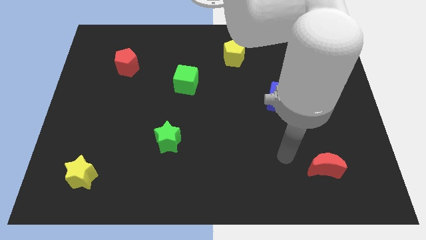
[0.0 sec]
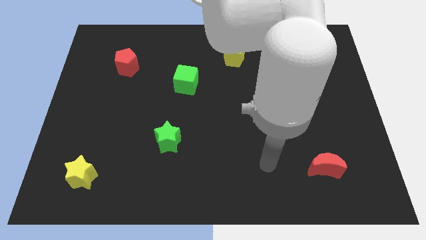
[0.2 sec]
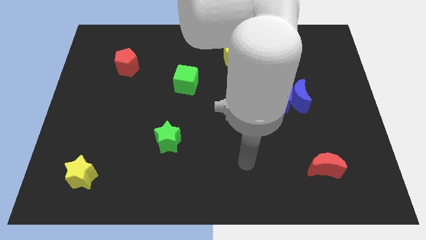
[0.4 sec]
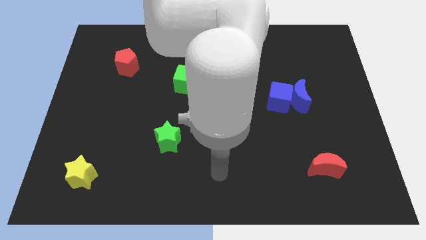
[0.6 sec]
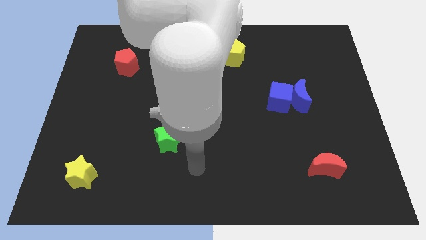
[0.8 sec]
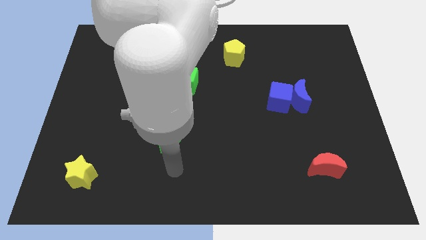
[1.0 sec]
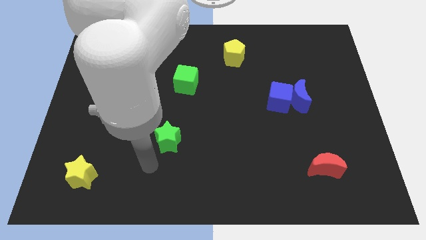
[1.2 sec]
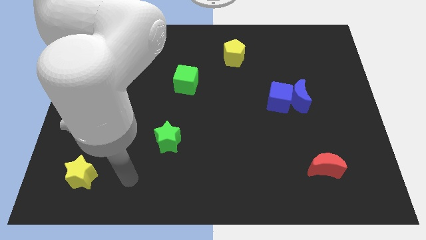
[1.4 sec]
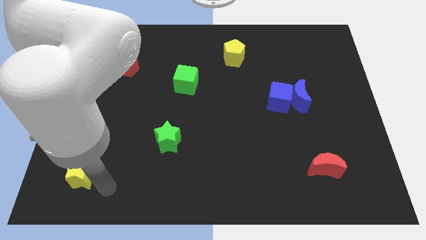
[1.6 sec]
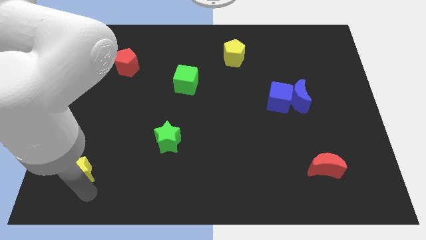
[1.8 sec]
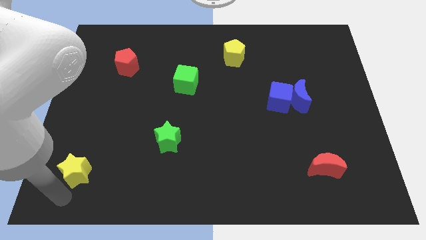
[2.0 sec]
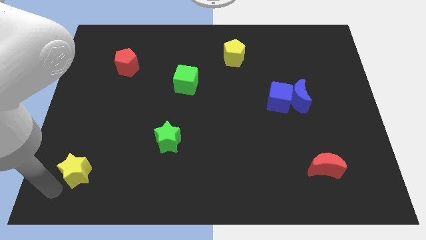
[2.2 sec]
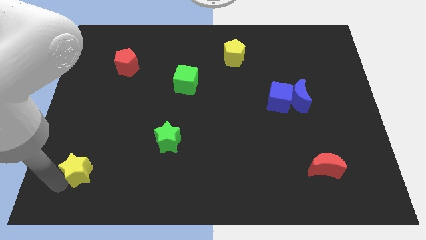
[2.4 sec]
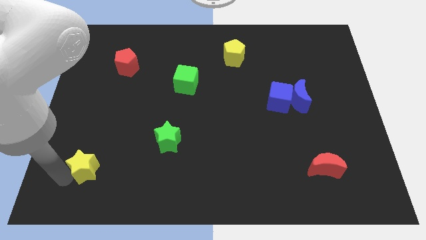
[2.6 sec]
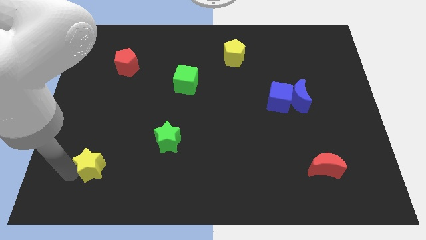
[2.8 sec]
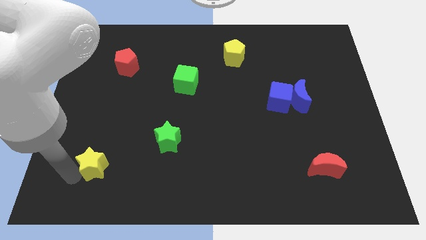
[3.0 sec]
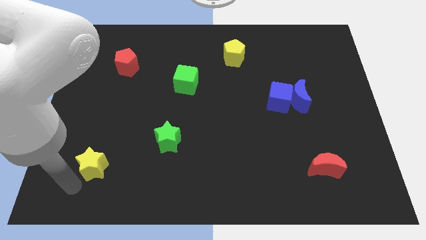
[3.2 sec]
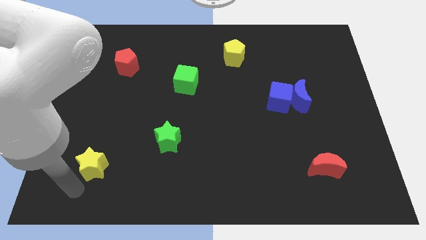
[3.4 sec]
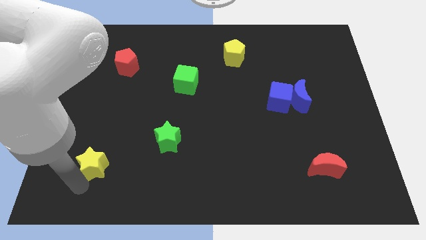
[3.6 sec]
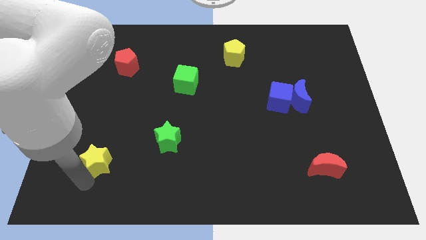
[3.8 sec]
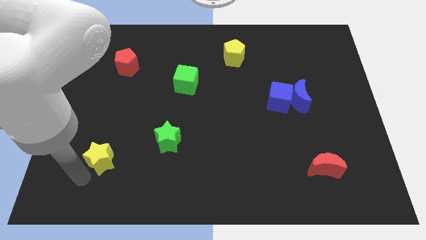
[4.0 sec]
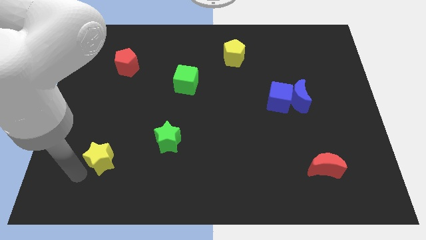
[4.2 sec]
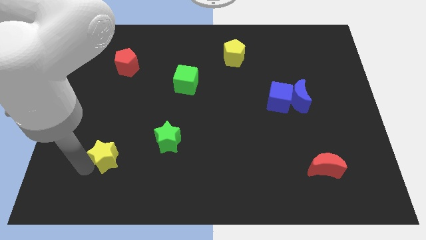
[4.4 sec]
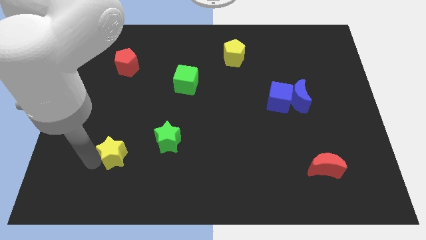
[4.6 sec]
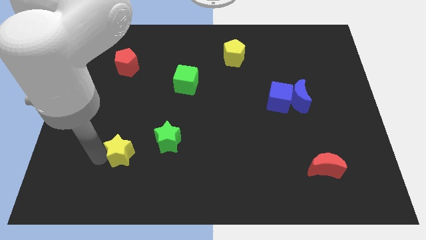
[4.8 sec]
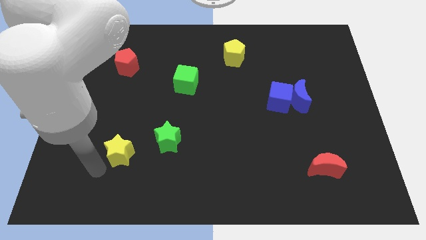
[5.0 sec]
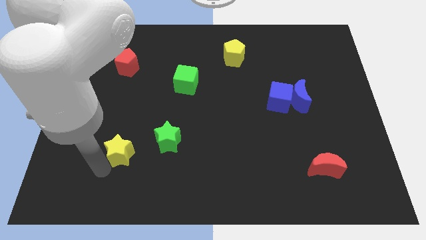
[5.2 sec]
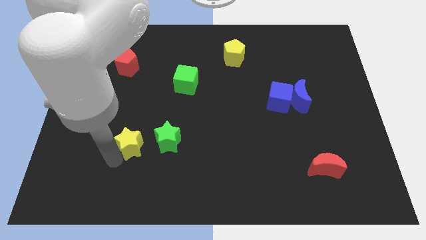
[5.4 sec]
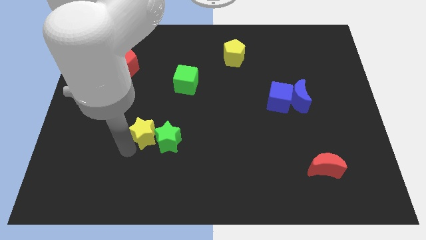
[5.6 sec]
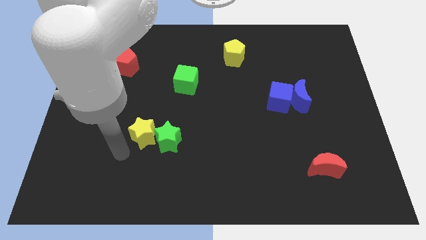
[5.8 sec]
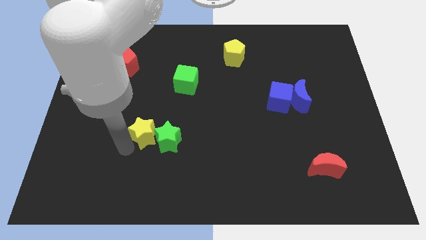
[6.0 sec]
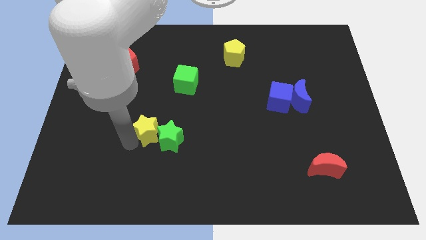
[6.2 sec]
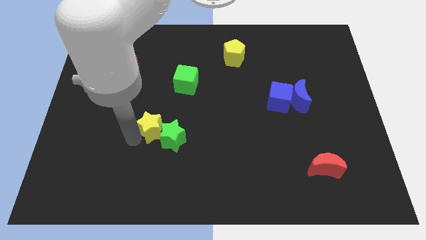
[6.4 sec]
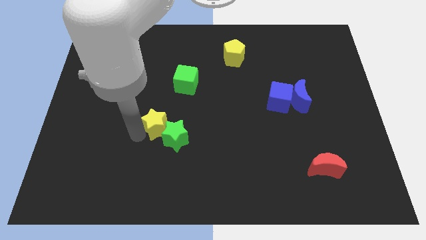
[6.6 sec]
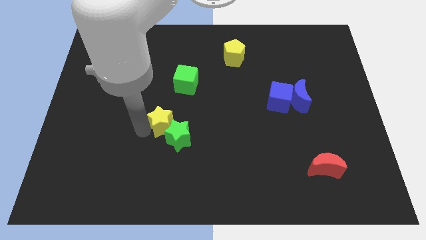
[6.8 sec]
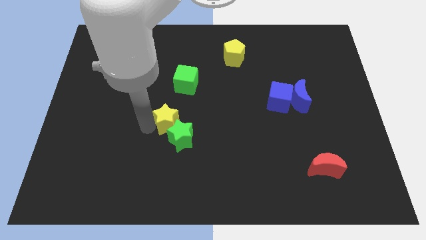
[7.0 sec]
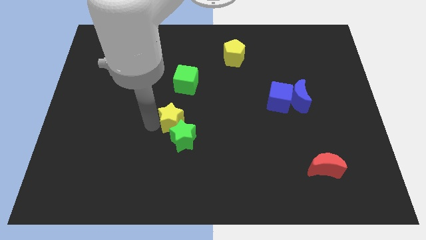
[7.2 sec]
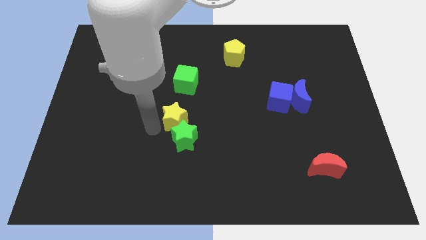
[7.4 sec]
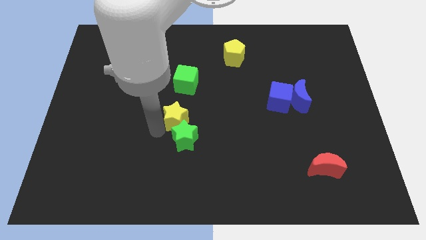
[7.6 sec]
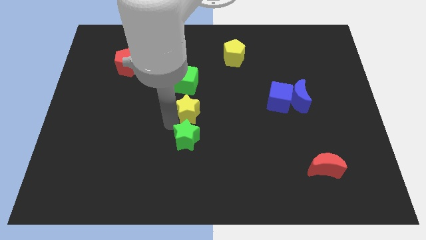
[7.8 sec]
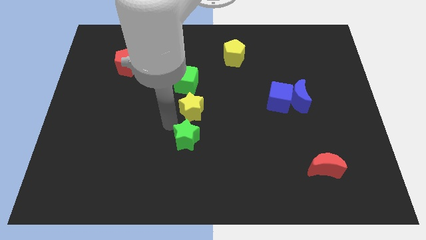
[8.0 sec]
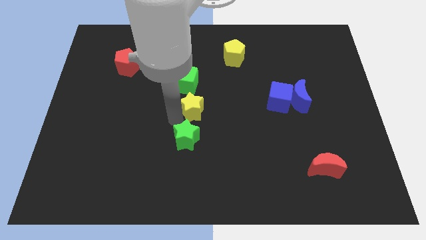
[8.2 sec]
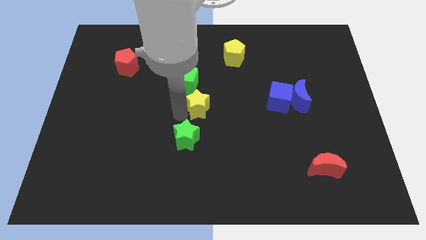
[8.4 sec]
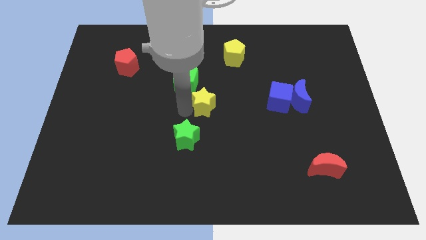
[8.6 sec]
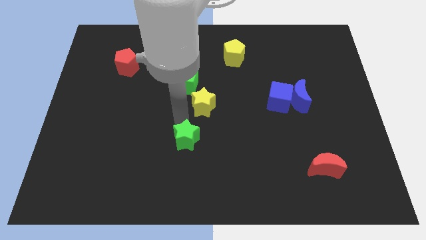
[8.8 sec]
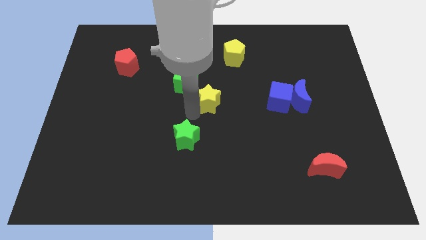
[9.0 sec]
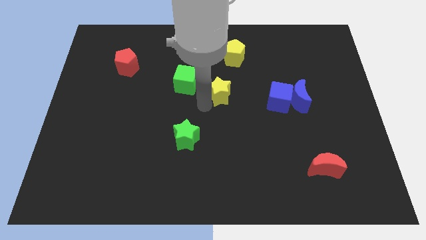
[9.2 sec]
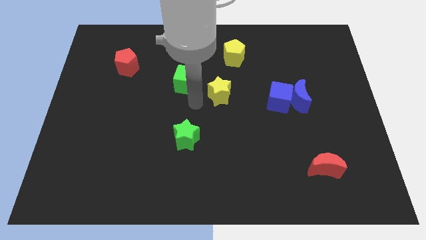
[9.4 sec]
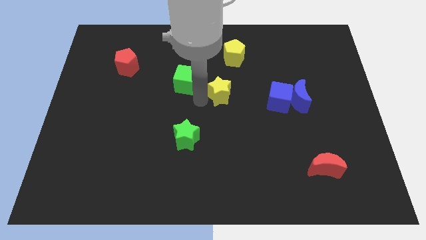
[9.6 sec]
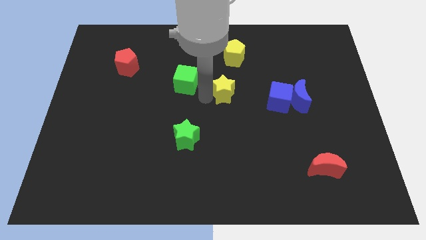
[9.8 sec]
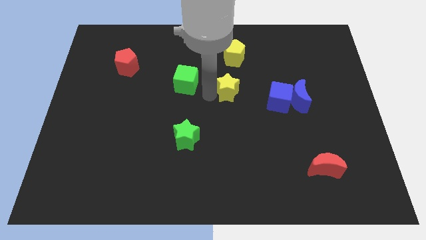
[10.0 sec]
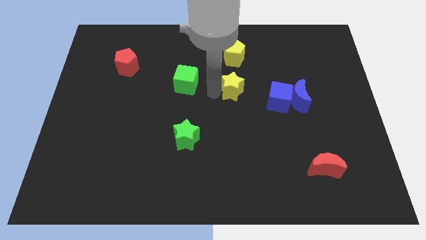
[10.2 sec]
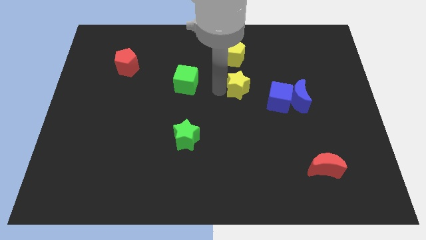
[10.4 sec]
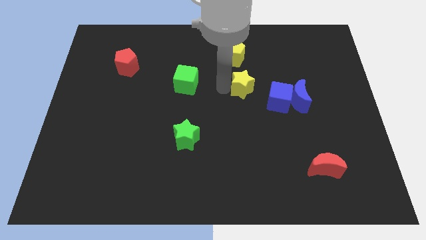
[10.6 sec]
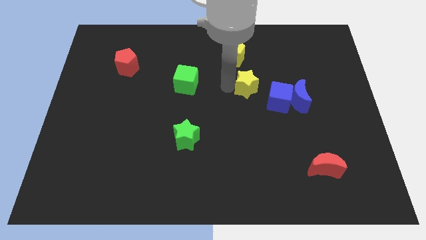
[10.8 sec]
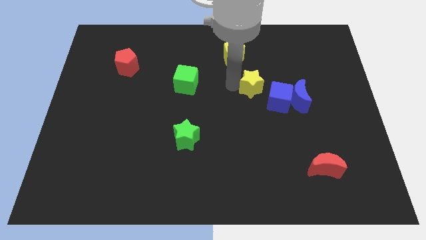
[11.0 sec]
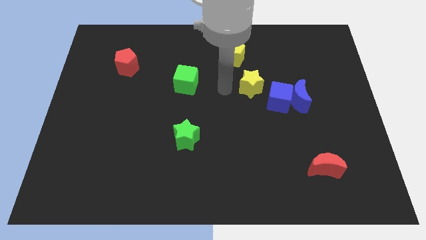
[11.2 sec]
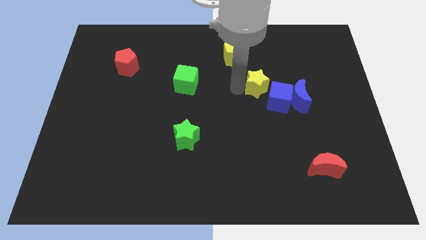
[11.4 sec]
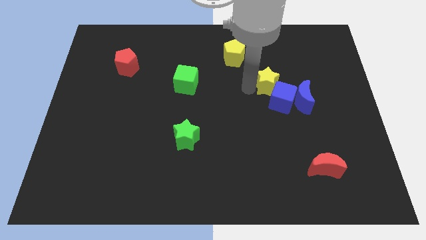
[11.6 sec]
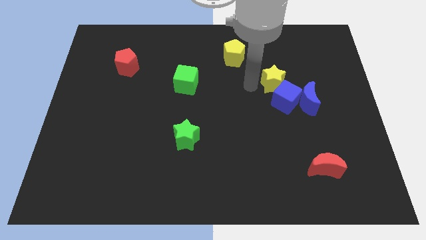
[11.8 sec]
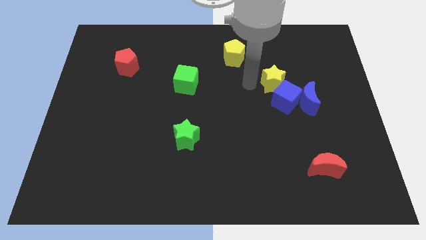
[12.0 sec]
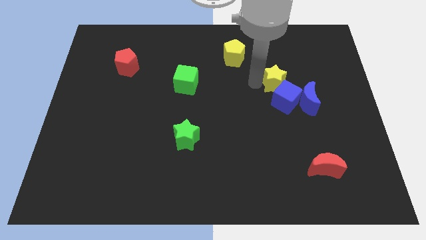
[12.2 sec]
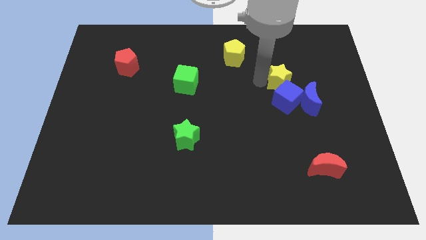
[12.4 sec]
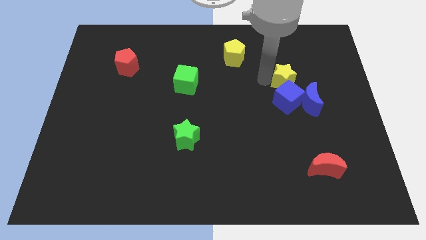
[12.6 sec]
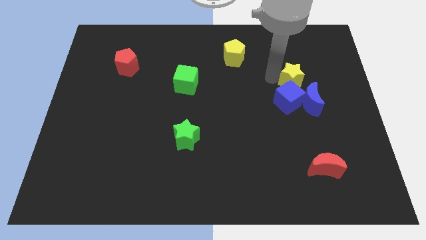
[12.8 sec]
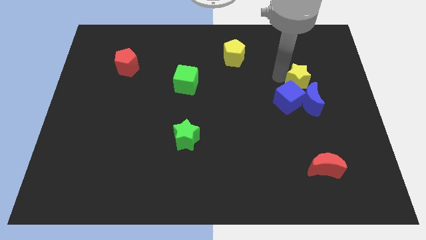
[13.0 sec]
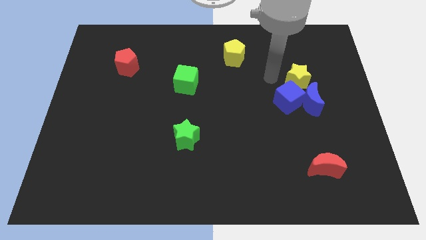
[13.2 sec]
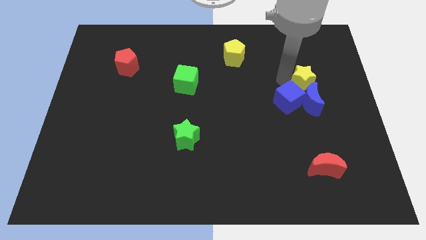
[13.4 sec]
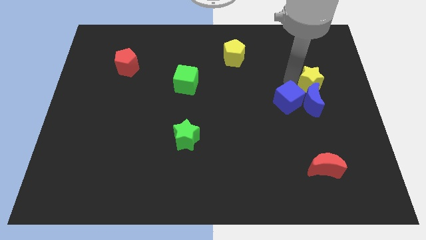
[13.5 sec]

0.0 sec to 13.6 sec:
slide the yellow star diagonally up and to the right of the blue moon
